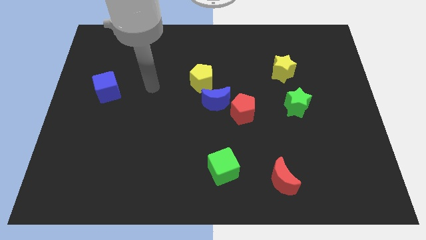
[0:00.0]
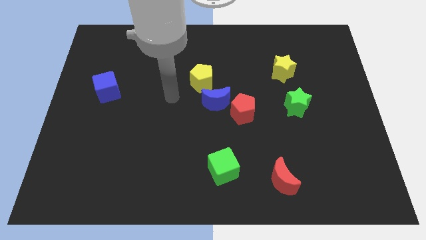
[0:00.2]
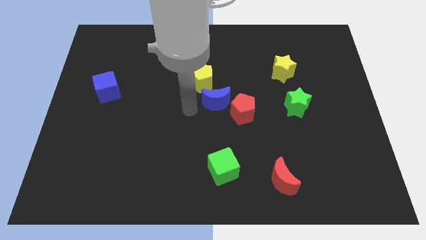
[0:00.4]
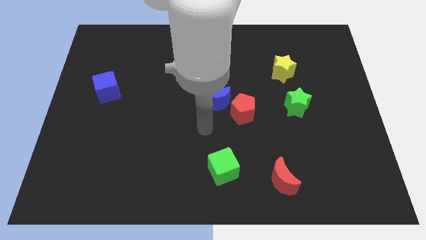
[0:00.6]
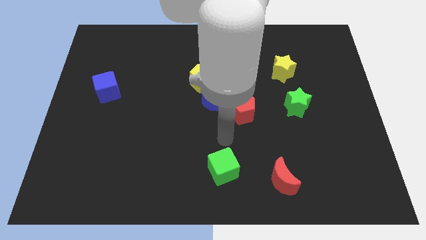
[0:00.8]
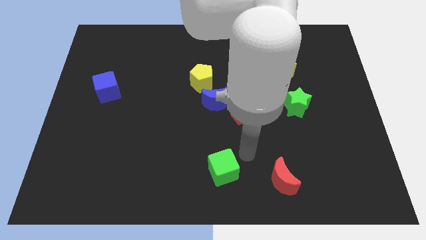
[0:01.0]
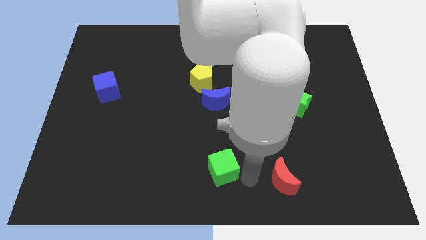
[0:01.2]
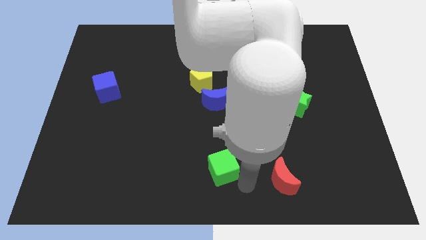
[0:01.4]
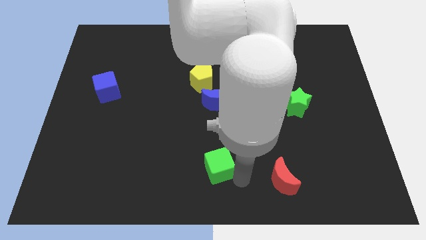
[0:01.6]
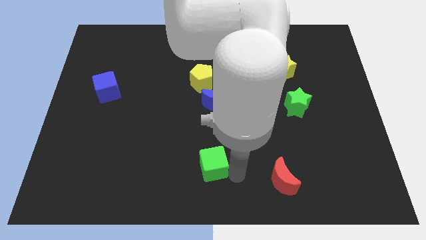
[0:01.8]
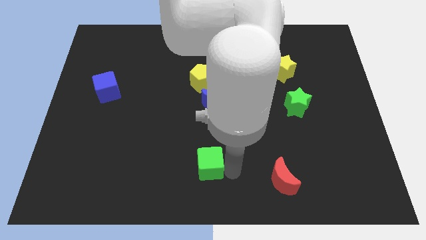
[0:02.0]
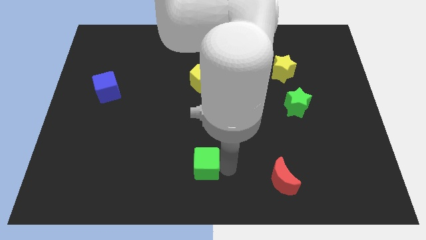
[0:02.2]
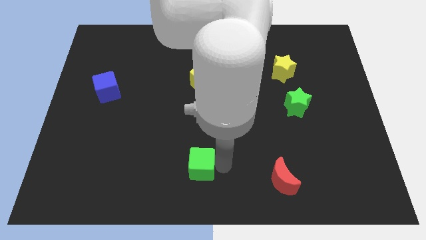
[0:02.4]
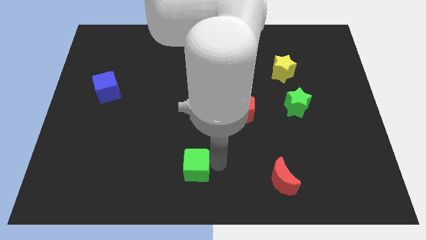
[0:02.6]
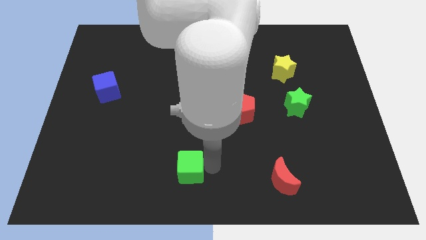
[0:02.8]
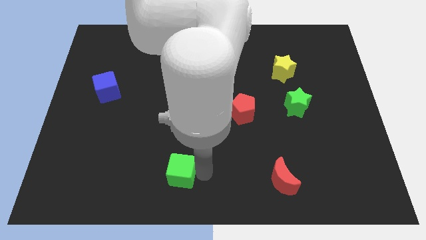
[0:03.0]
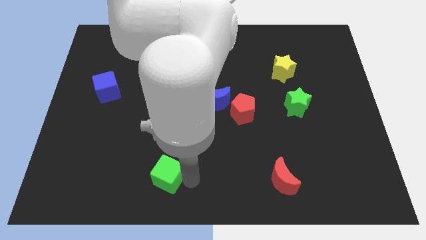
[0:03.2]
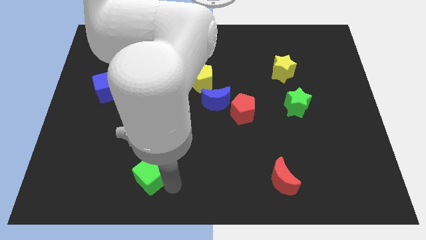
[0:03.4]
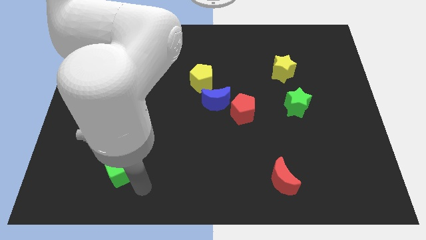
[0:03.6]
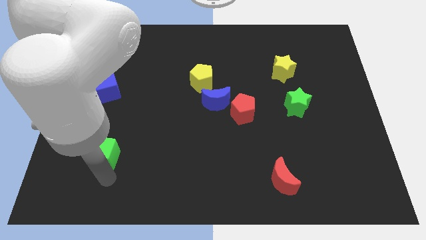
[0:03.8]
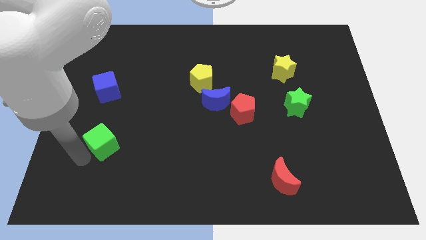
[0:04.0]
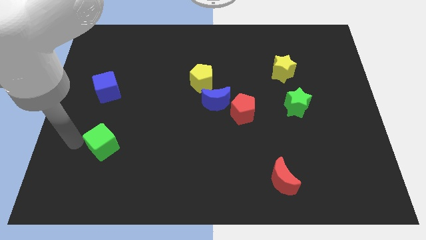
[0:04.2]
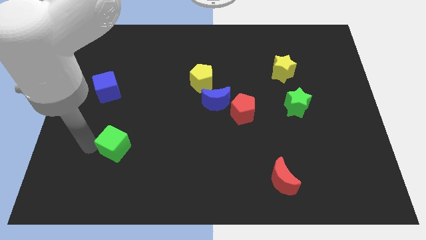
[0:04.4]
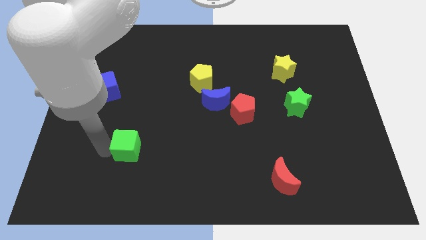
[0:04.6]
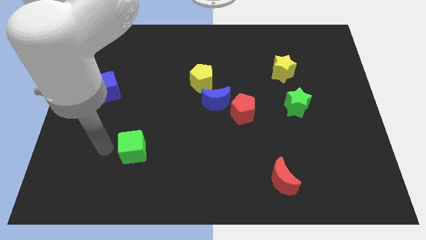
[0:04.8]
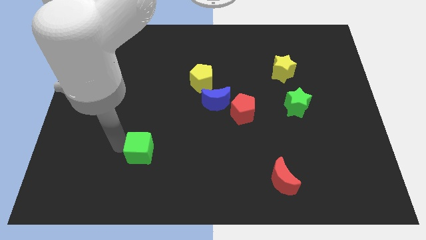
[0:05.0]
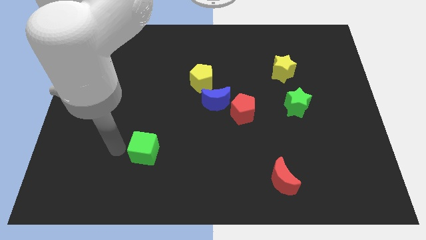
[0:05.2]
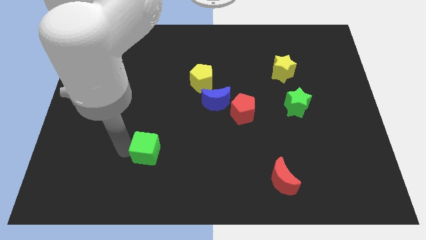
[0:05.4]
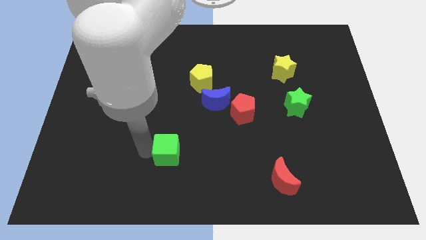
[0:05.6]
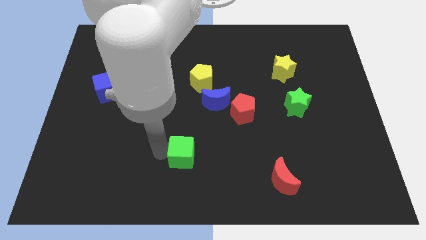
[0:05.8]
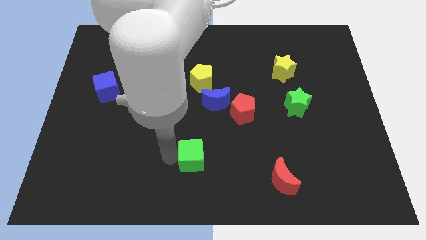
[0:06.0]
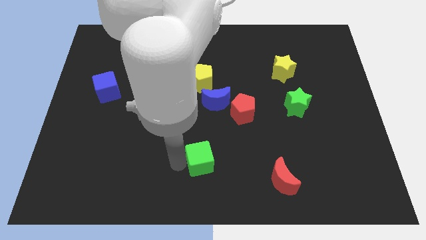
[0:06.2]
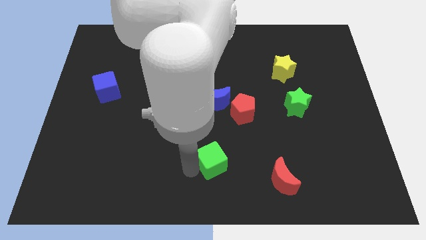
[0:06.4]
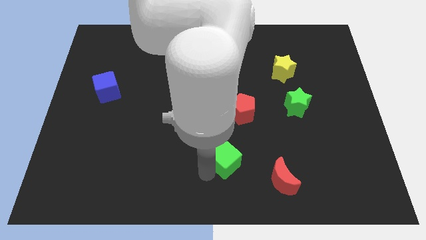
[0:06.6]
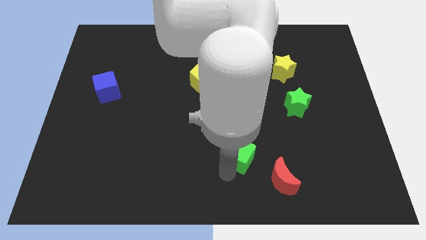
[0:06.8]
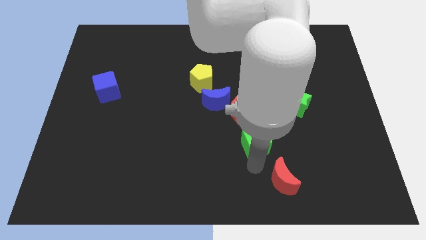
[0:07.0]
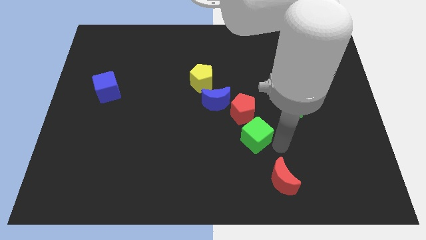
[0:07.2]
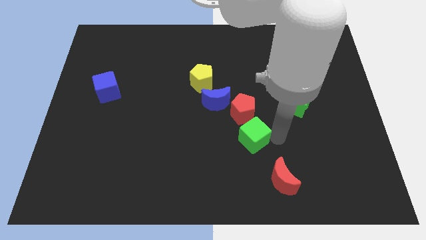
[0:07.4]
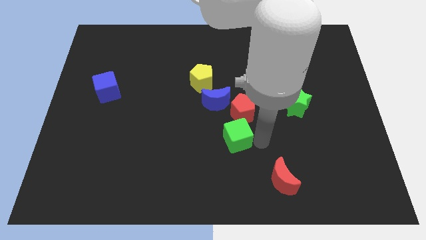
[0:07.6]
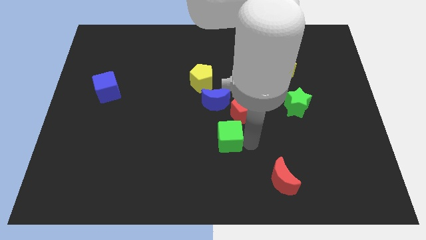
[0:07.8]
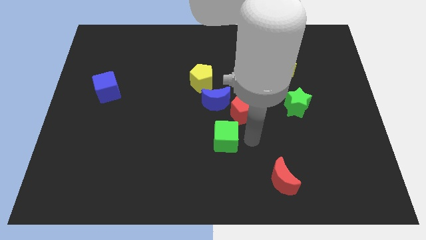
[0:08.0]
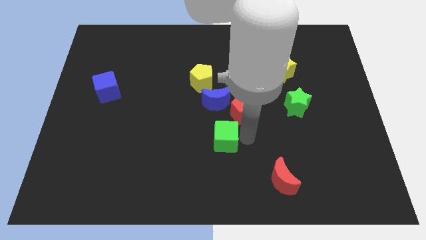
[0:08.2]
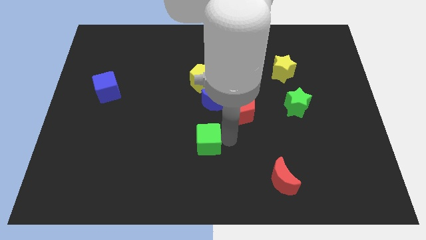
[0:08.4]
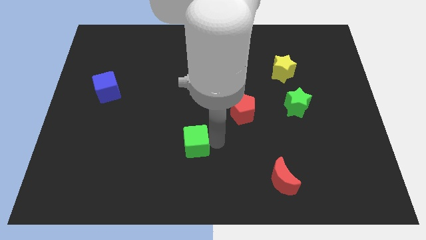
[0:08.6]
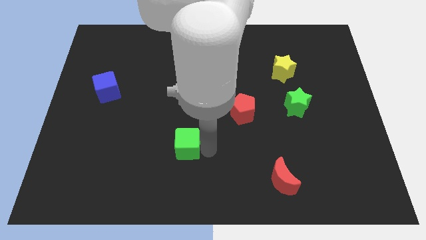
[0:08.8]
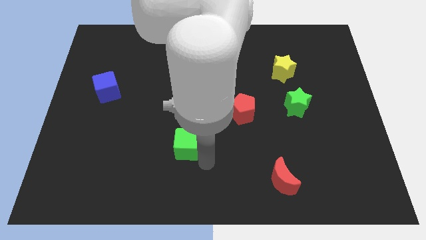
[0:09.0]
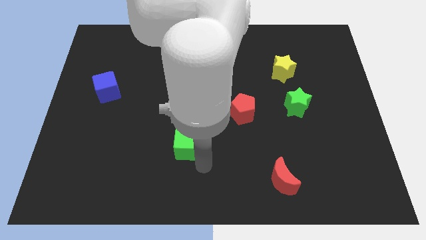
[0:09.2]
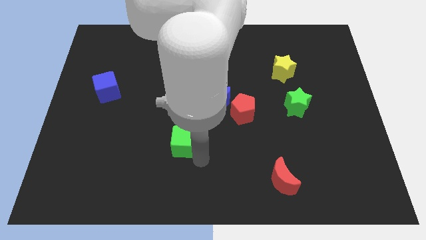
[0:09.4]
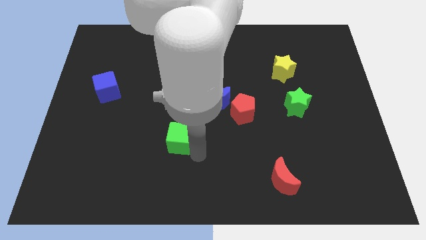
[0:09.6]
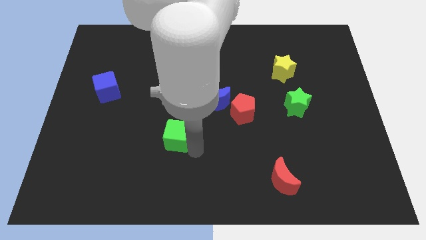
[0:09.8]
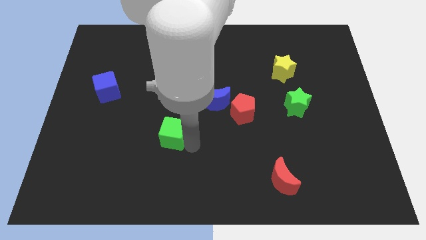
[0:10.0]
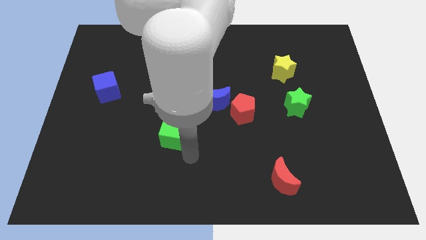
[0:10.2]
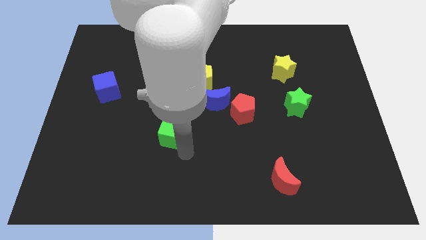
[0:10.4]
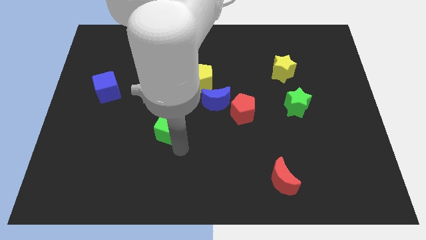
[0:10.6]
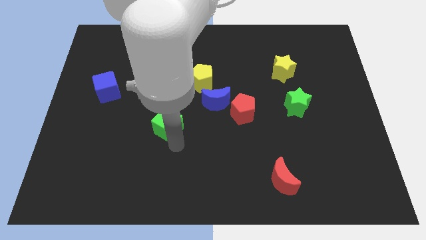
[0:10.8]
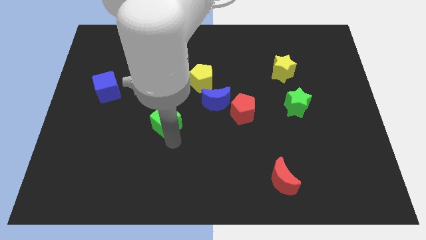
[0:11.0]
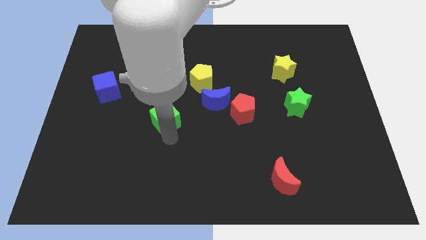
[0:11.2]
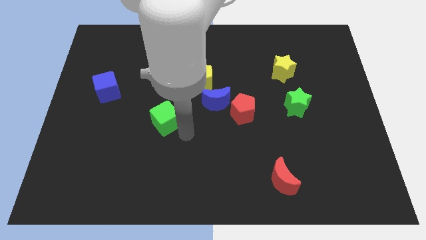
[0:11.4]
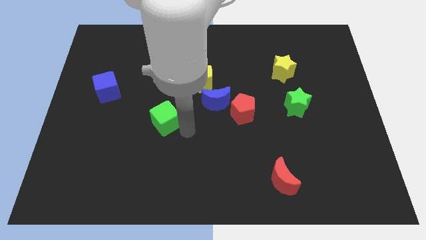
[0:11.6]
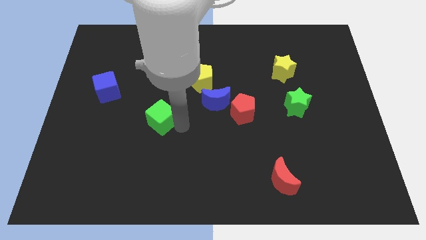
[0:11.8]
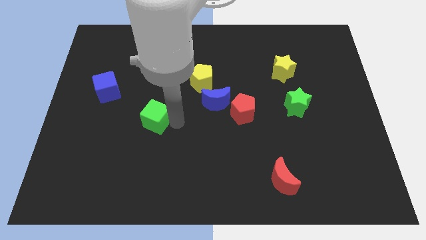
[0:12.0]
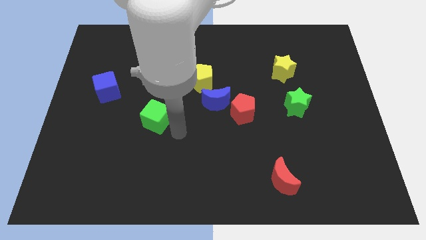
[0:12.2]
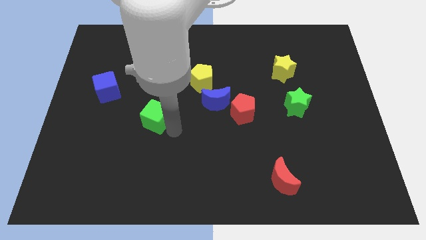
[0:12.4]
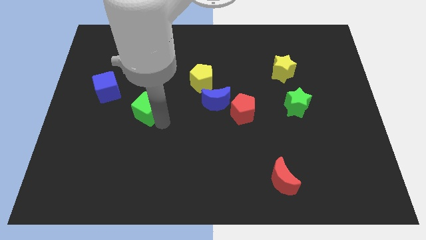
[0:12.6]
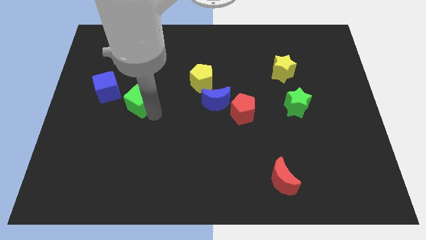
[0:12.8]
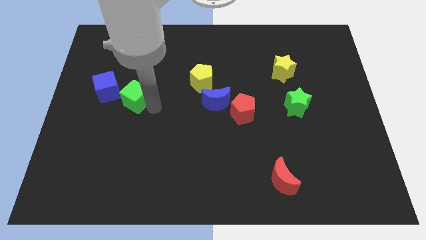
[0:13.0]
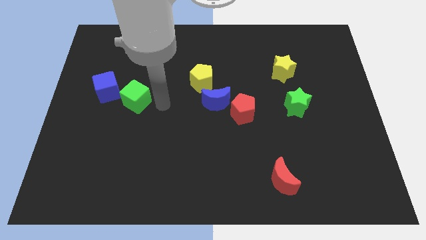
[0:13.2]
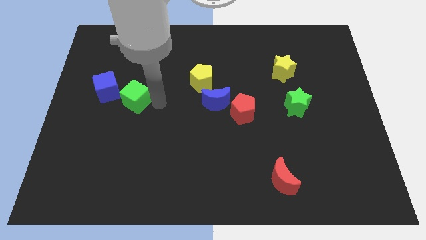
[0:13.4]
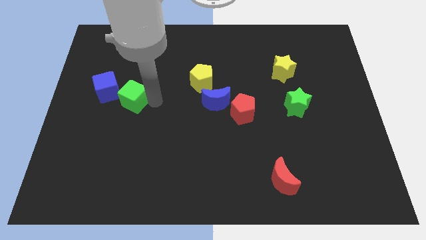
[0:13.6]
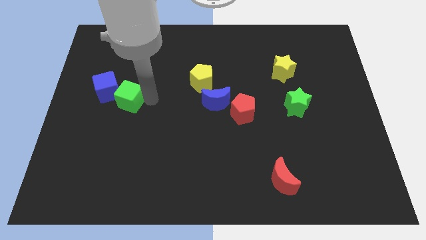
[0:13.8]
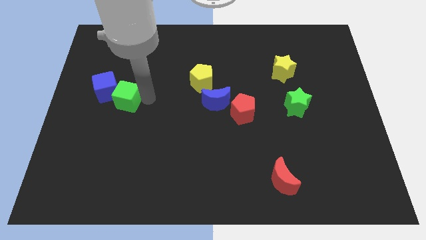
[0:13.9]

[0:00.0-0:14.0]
push the green cube close to the blue cube
